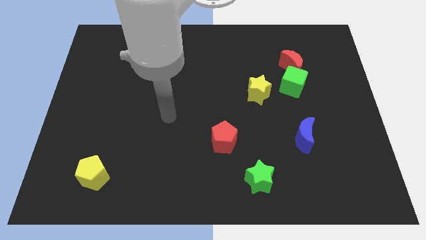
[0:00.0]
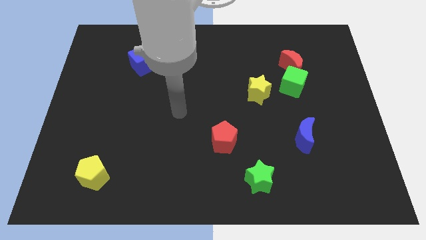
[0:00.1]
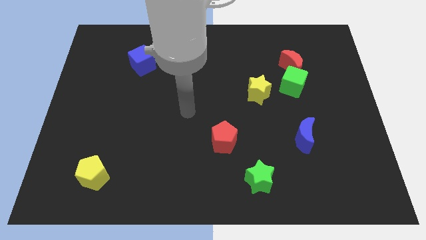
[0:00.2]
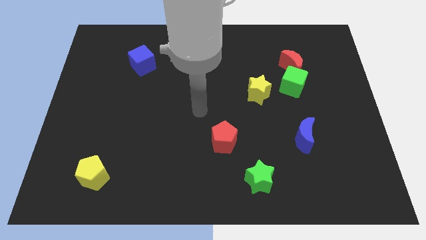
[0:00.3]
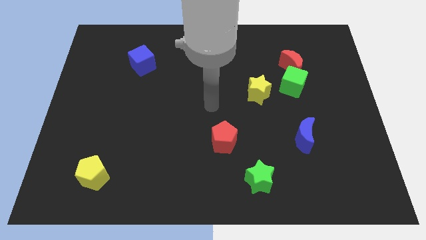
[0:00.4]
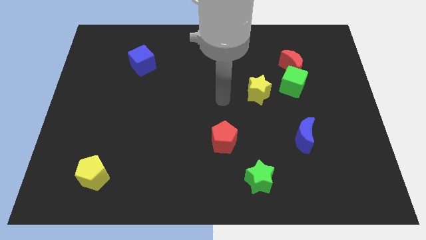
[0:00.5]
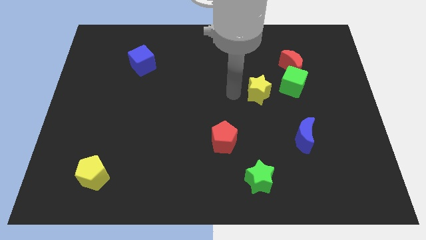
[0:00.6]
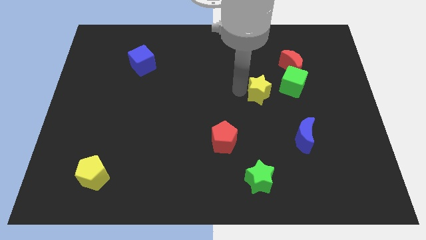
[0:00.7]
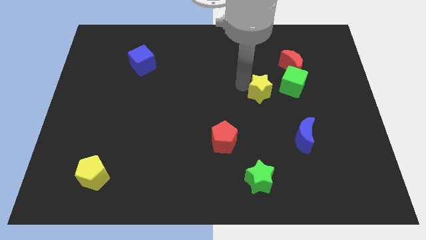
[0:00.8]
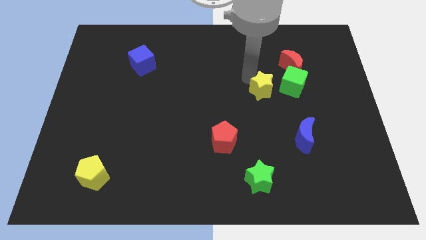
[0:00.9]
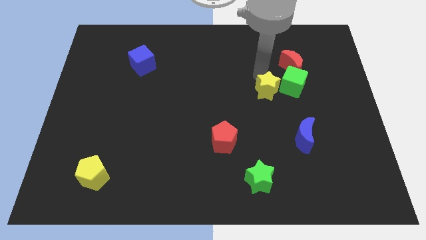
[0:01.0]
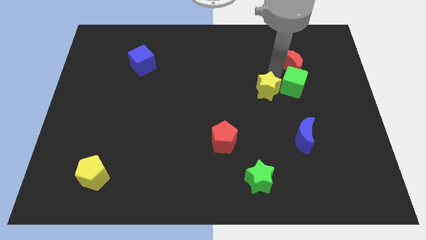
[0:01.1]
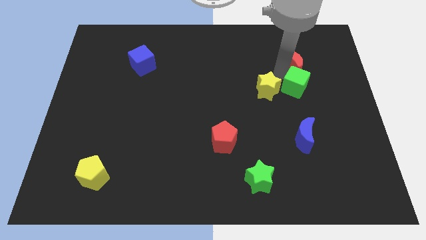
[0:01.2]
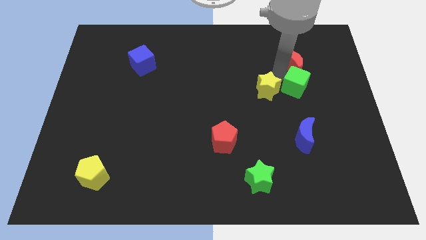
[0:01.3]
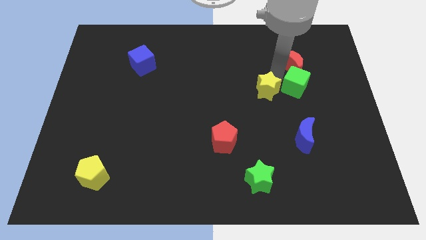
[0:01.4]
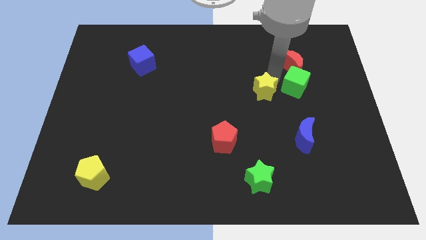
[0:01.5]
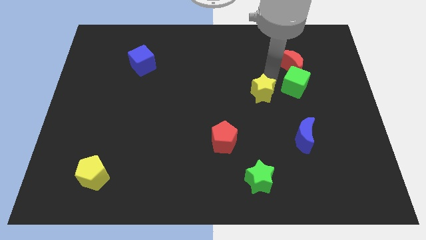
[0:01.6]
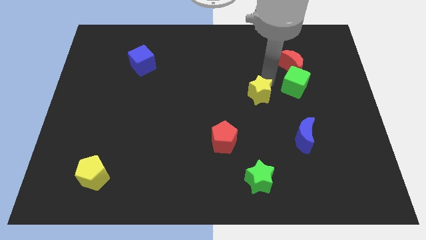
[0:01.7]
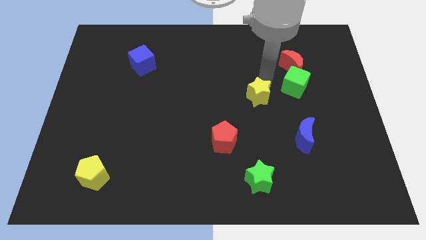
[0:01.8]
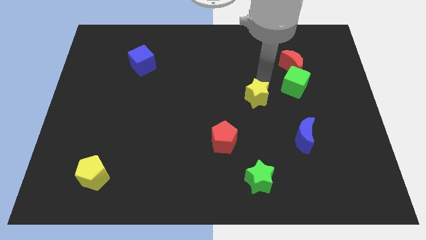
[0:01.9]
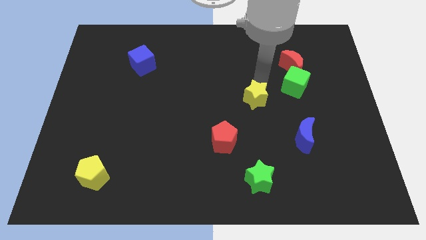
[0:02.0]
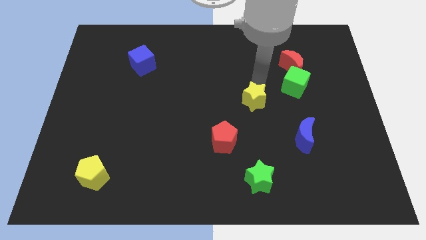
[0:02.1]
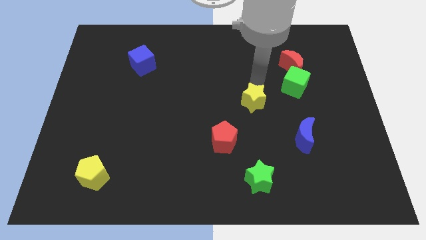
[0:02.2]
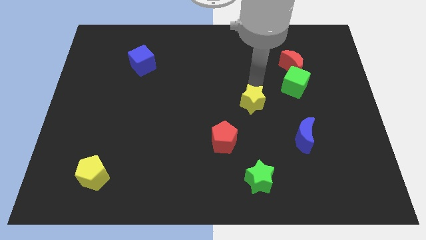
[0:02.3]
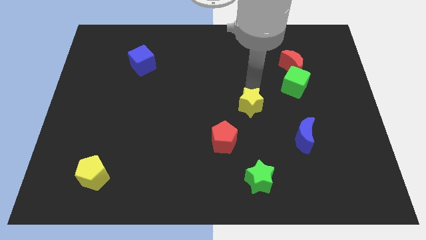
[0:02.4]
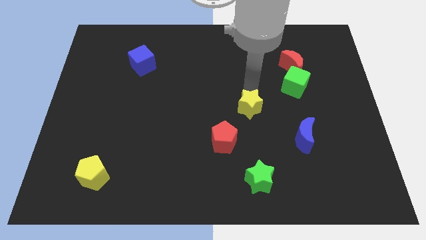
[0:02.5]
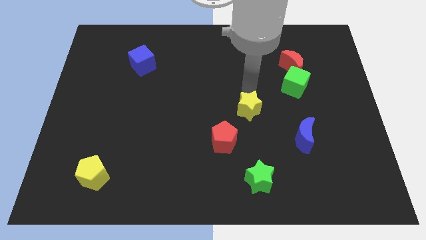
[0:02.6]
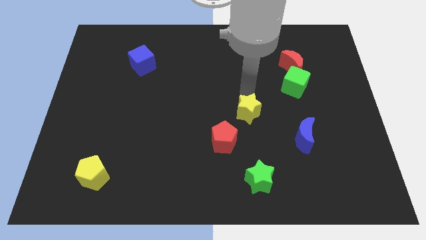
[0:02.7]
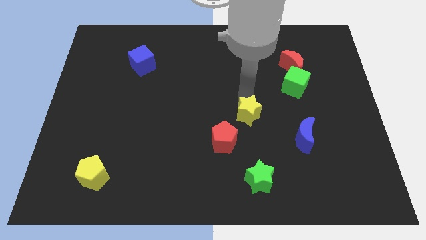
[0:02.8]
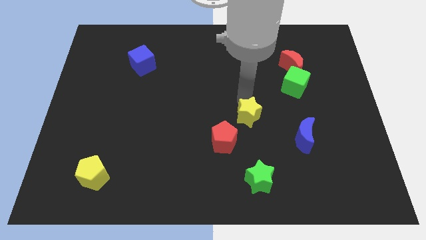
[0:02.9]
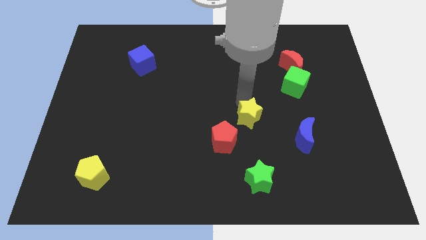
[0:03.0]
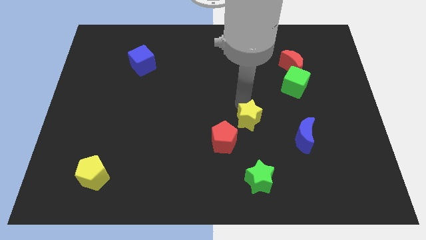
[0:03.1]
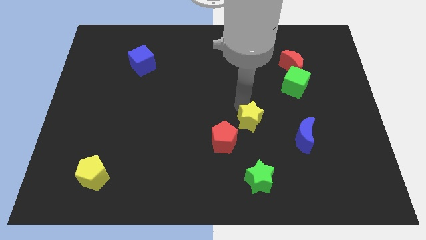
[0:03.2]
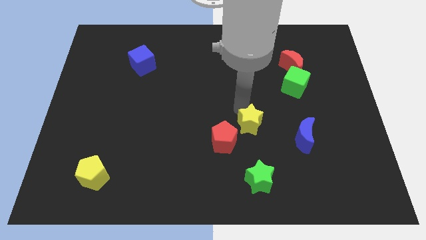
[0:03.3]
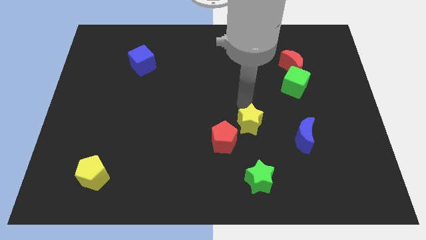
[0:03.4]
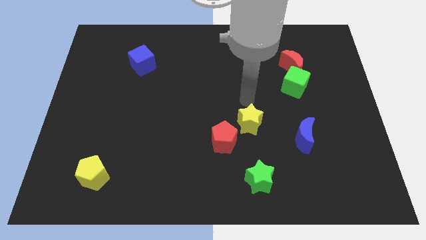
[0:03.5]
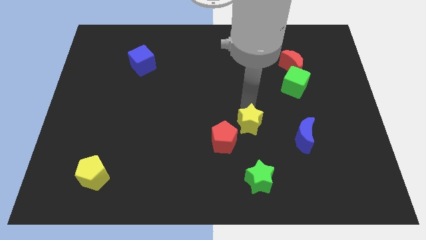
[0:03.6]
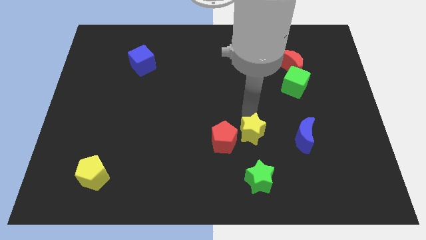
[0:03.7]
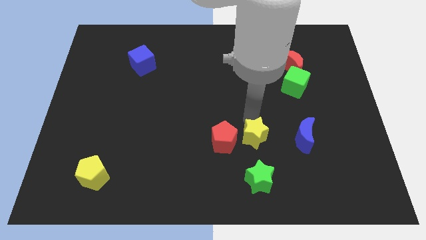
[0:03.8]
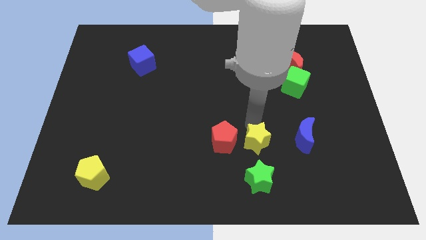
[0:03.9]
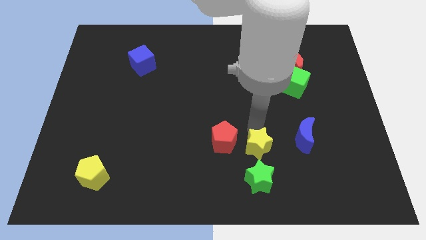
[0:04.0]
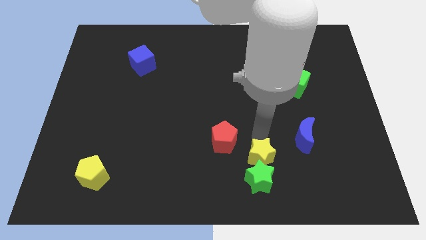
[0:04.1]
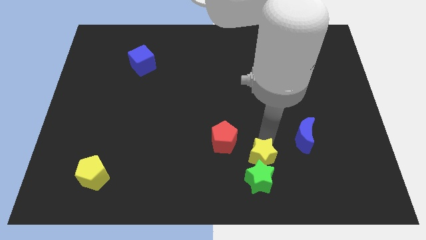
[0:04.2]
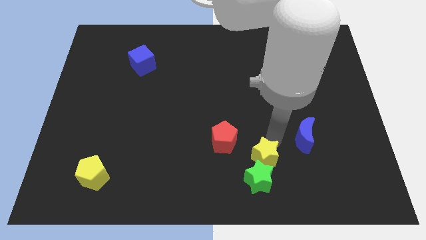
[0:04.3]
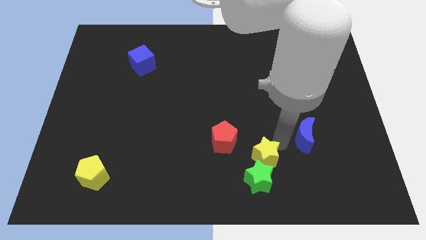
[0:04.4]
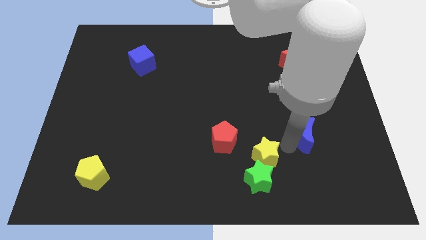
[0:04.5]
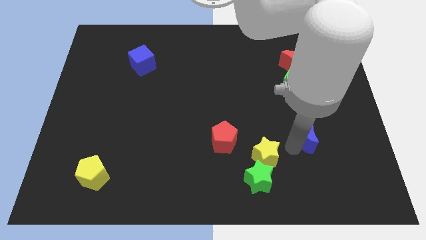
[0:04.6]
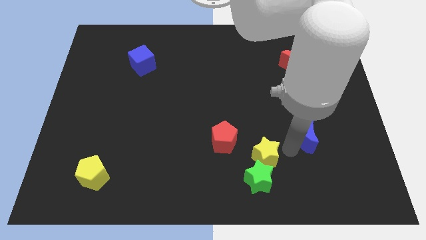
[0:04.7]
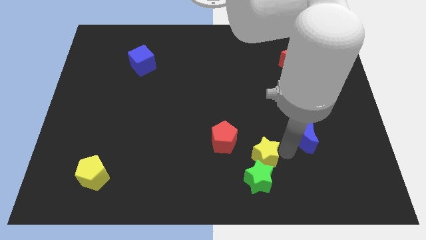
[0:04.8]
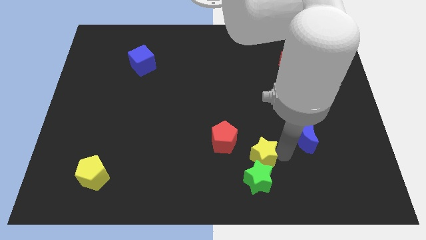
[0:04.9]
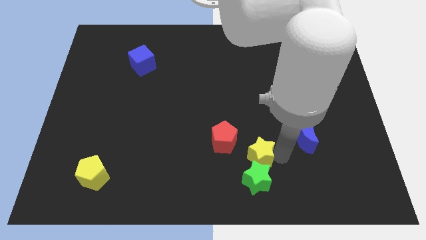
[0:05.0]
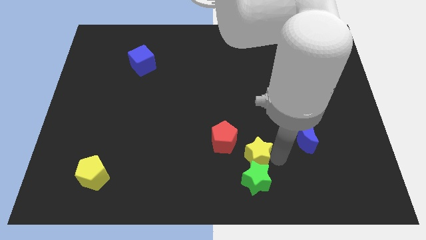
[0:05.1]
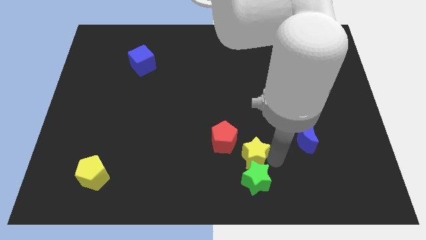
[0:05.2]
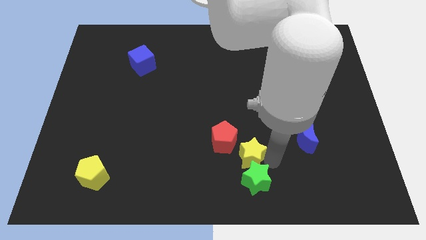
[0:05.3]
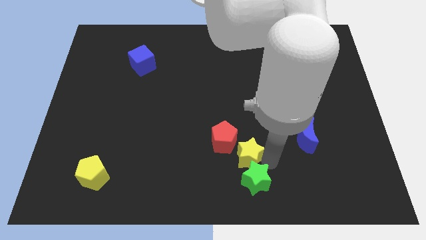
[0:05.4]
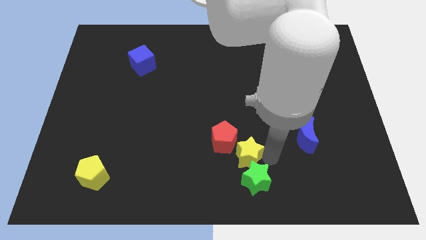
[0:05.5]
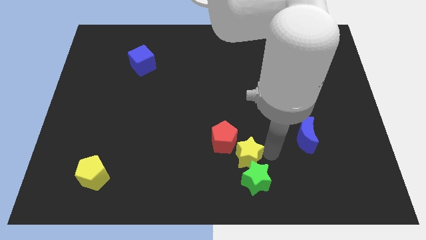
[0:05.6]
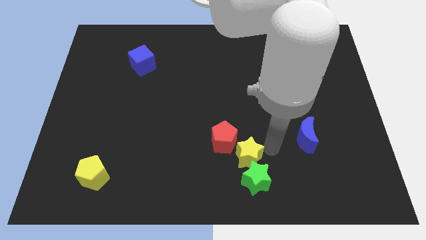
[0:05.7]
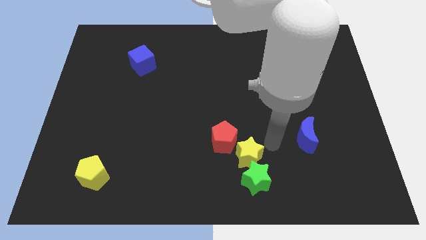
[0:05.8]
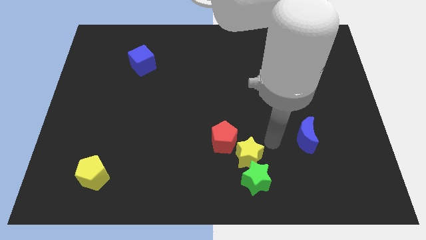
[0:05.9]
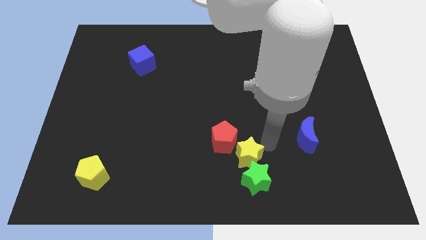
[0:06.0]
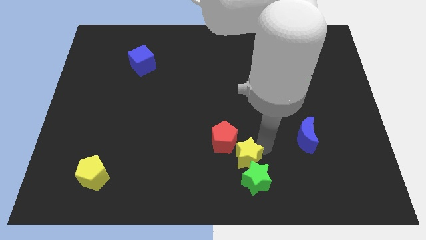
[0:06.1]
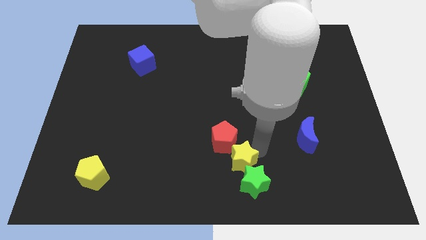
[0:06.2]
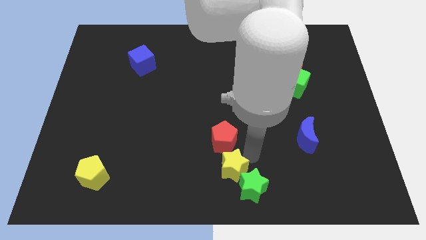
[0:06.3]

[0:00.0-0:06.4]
push the yellow star left of the green star
